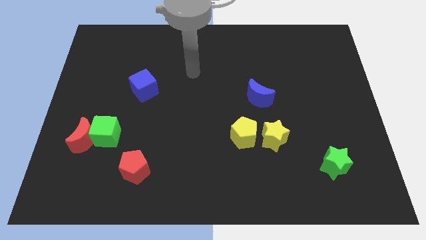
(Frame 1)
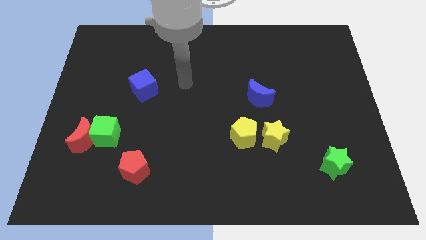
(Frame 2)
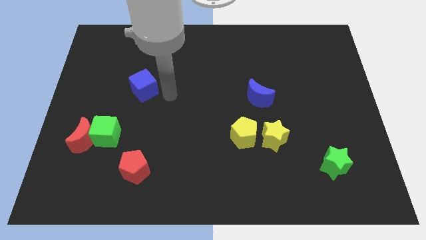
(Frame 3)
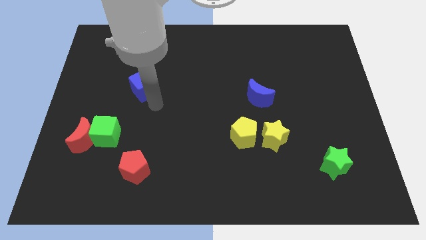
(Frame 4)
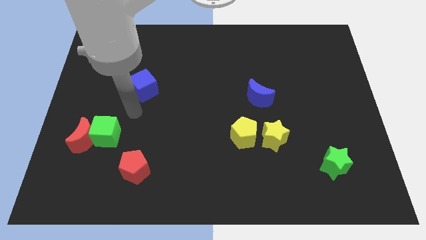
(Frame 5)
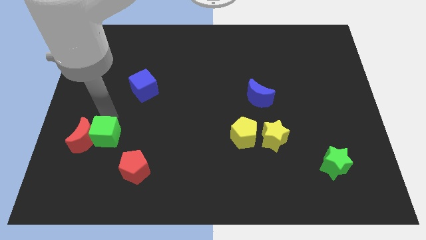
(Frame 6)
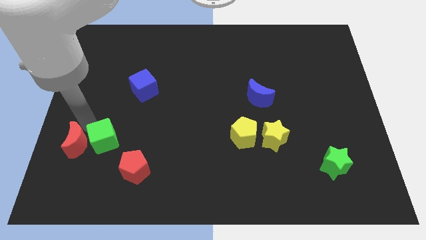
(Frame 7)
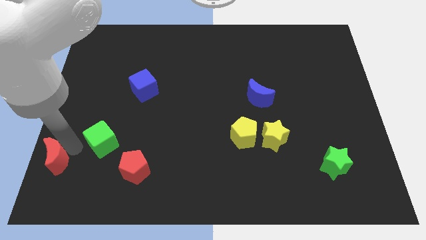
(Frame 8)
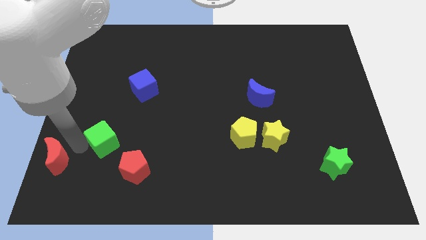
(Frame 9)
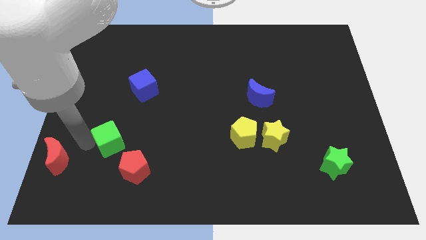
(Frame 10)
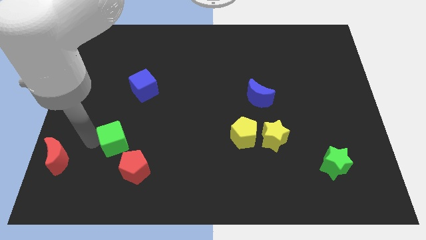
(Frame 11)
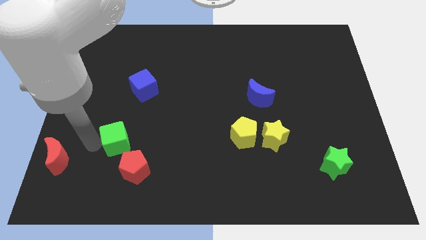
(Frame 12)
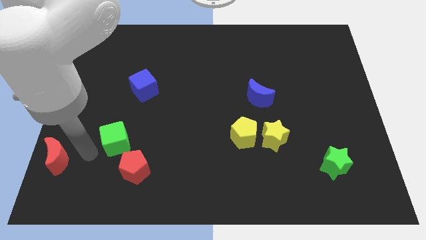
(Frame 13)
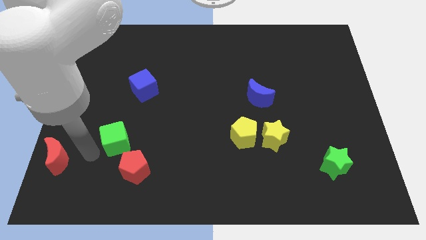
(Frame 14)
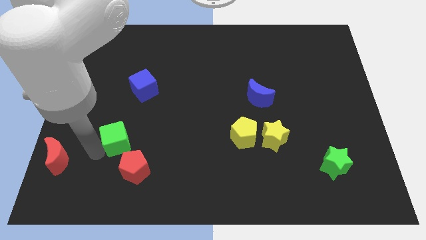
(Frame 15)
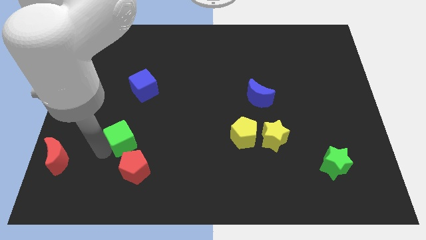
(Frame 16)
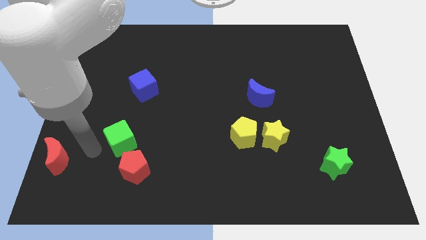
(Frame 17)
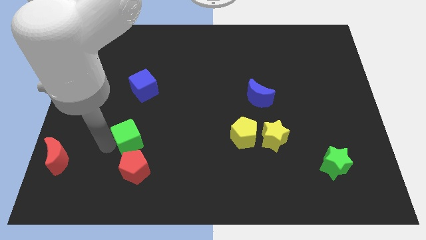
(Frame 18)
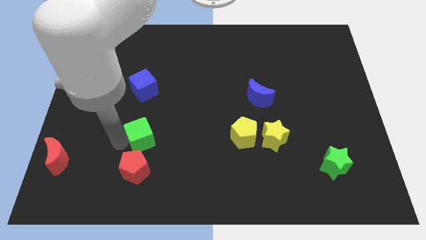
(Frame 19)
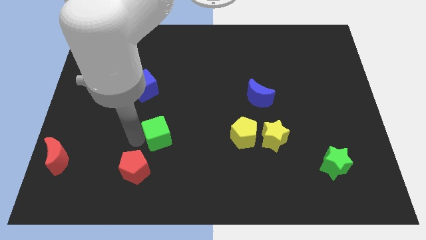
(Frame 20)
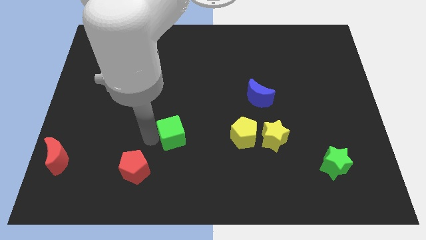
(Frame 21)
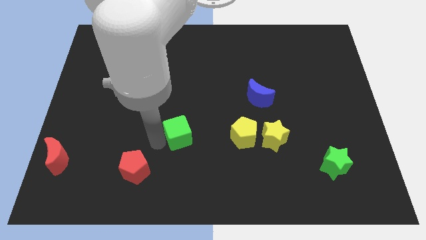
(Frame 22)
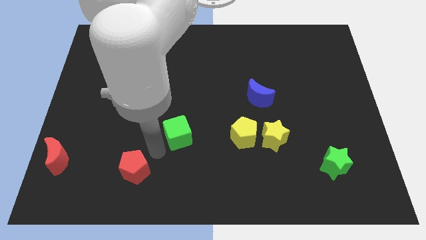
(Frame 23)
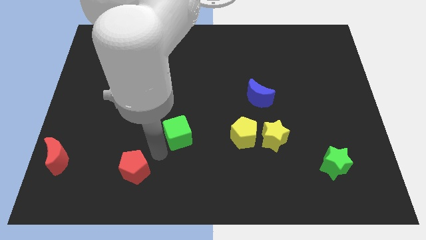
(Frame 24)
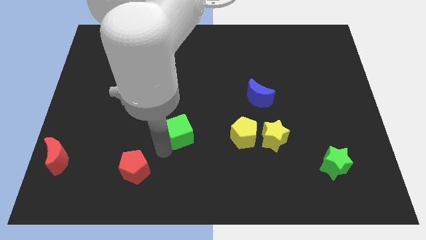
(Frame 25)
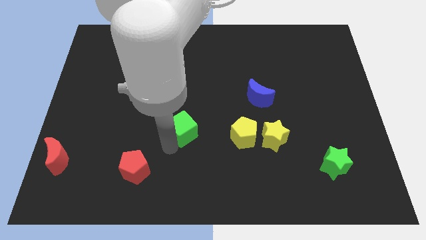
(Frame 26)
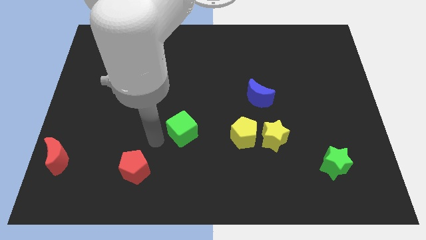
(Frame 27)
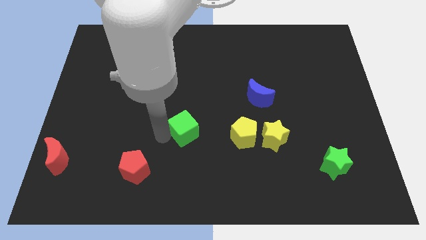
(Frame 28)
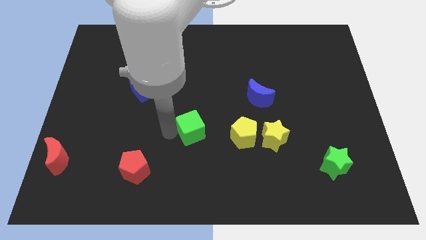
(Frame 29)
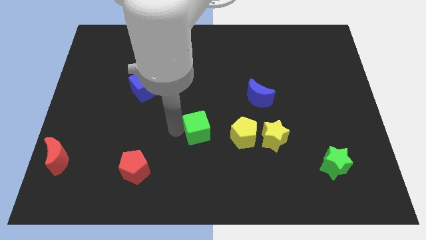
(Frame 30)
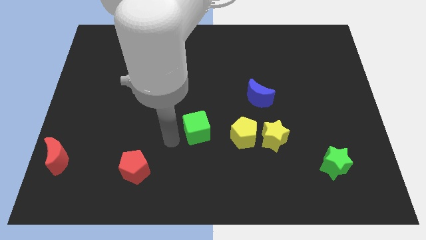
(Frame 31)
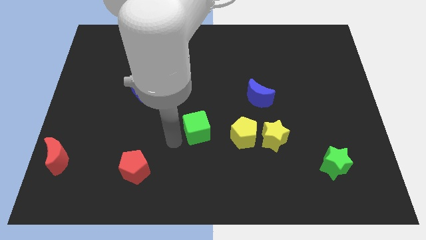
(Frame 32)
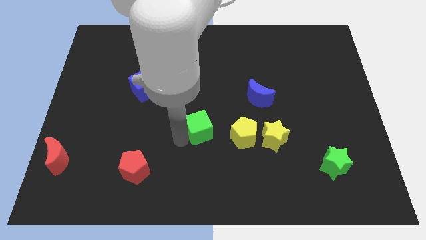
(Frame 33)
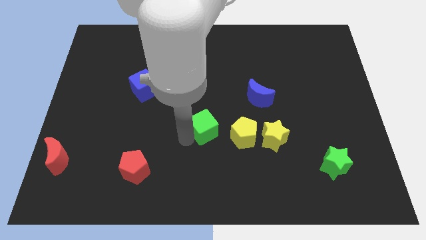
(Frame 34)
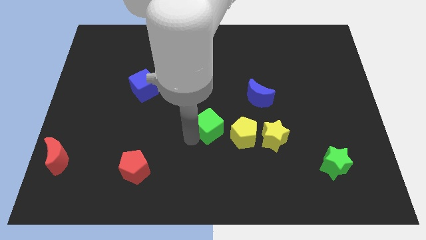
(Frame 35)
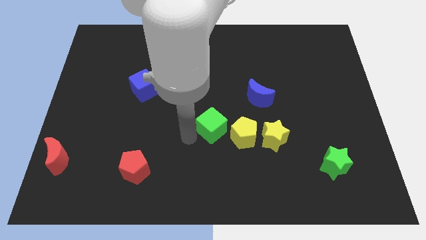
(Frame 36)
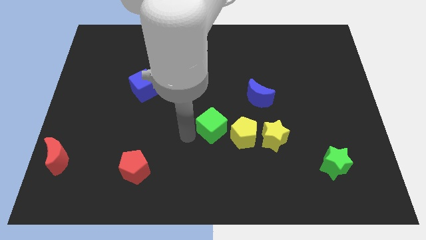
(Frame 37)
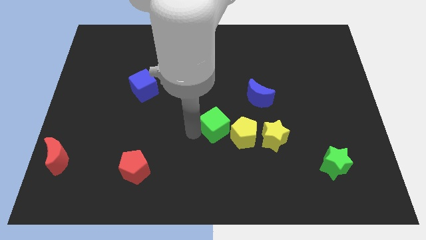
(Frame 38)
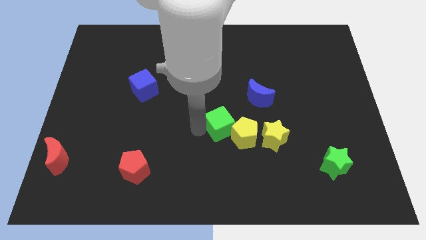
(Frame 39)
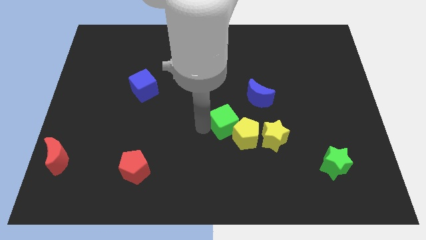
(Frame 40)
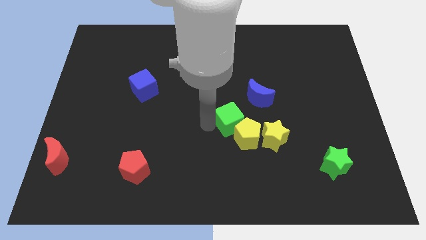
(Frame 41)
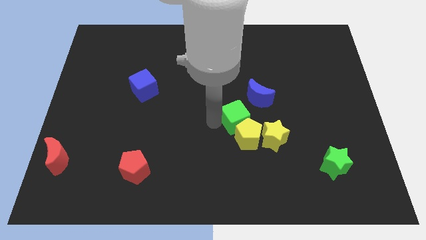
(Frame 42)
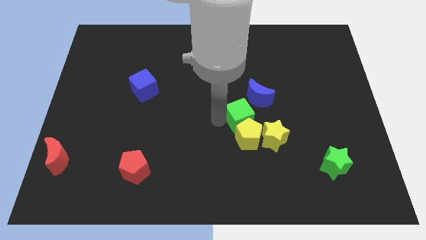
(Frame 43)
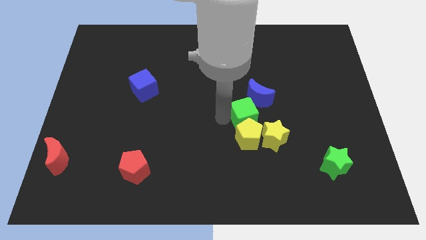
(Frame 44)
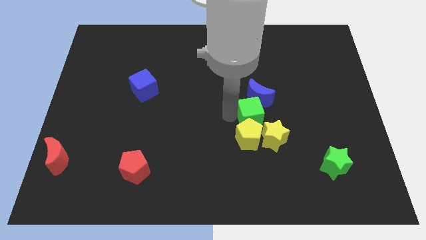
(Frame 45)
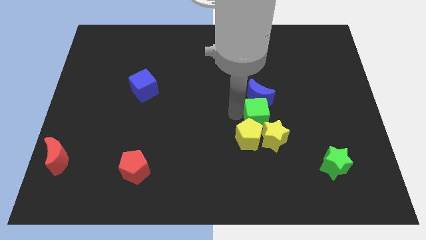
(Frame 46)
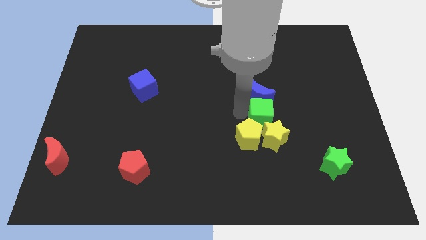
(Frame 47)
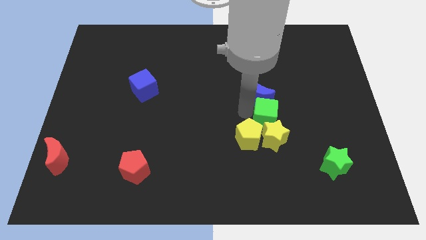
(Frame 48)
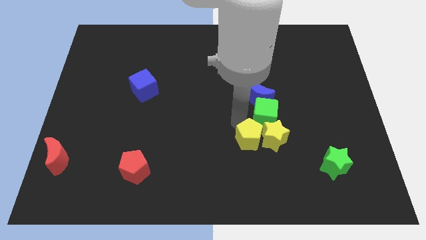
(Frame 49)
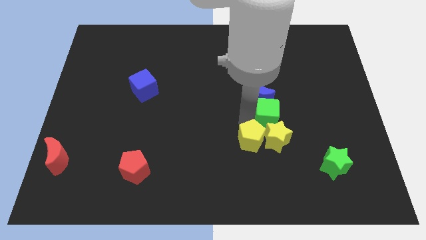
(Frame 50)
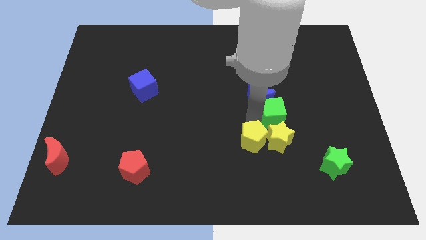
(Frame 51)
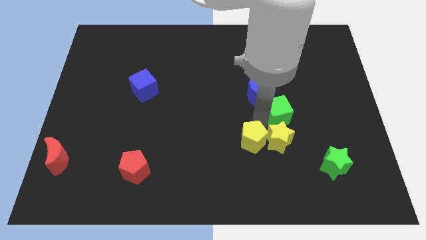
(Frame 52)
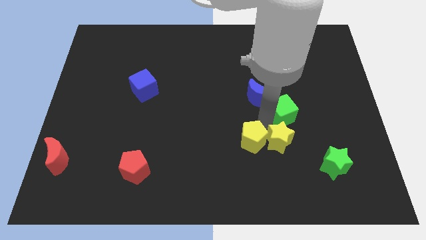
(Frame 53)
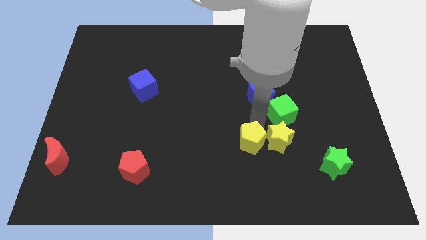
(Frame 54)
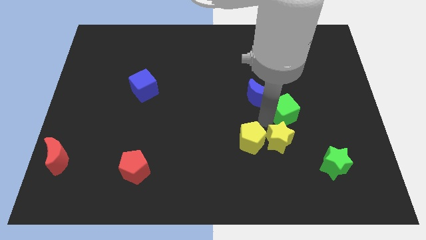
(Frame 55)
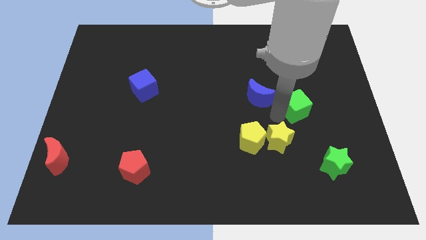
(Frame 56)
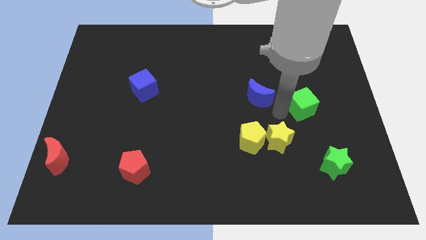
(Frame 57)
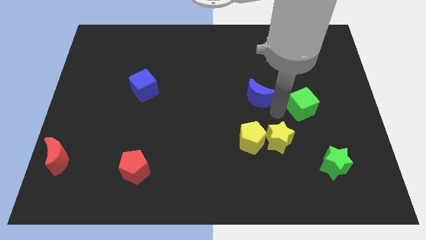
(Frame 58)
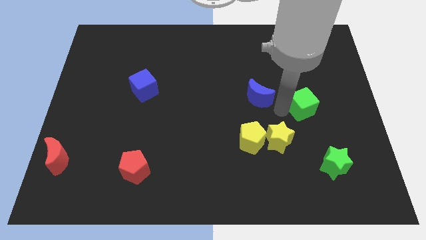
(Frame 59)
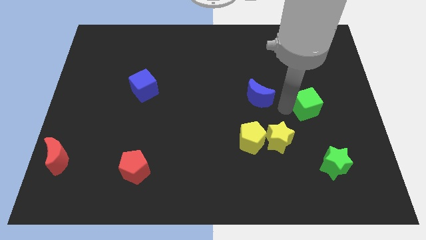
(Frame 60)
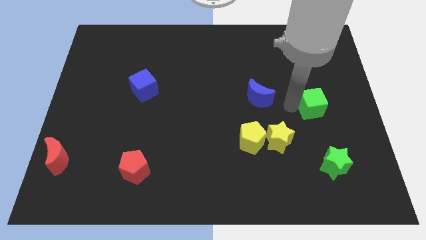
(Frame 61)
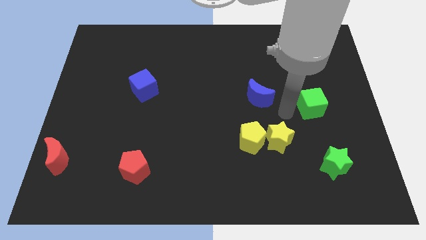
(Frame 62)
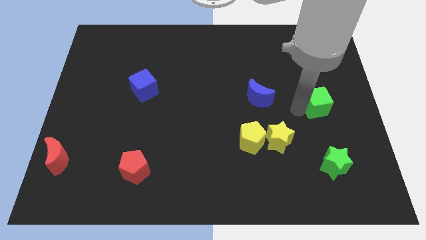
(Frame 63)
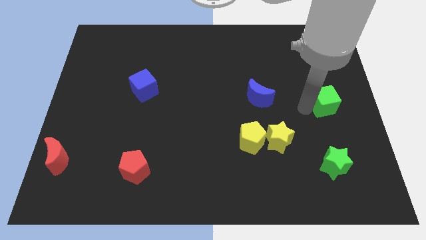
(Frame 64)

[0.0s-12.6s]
move the green cube to the center right

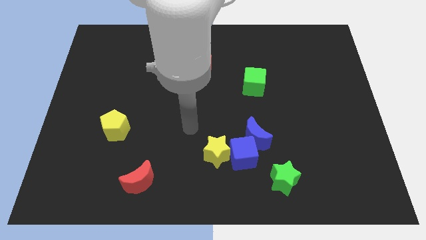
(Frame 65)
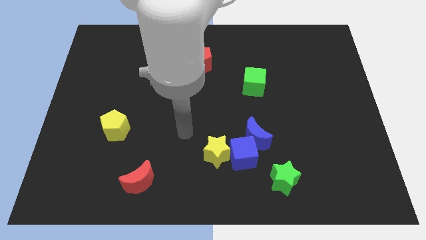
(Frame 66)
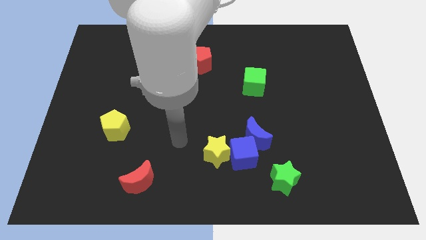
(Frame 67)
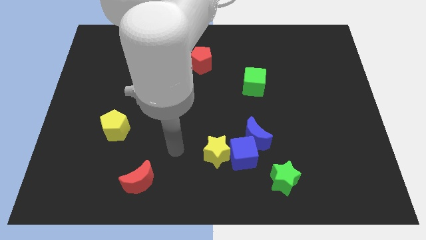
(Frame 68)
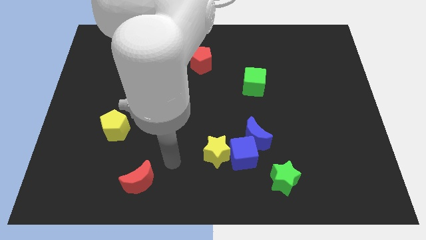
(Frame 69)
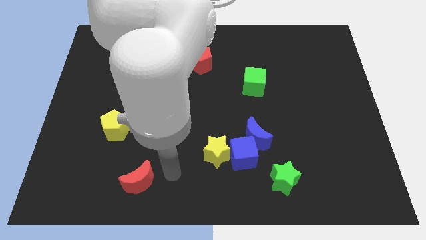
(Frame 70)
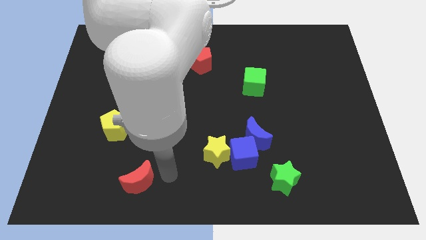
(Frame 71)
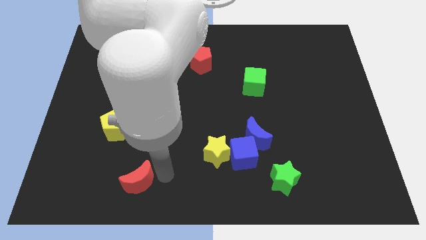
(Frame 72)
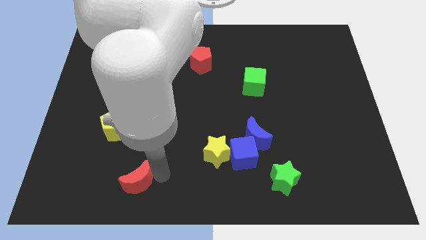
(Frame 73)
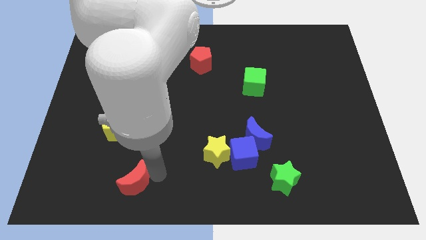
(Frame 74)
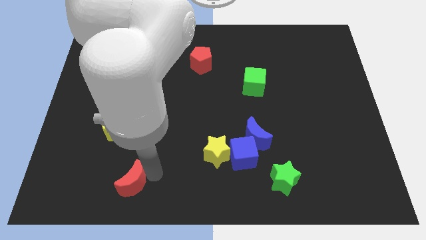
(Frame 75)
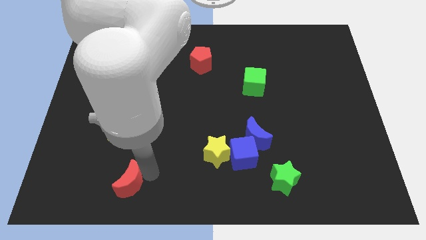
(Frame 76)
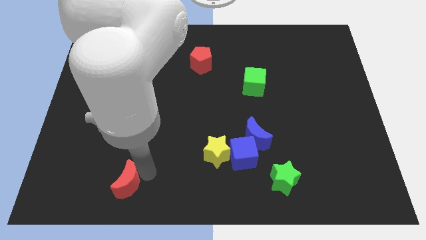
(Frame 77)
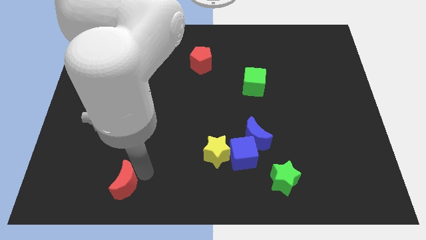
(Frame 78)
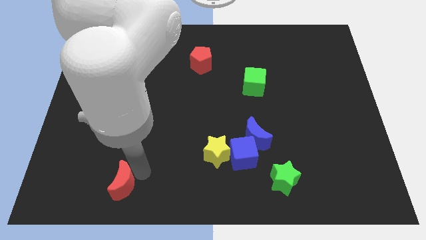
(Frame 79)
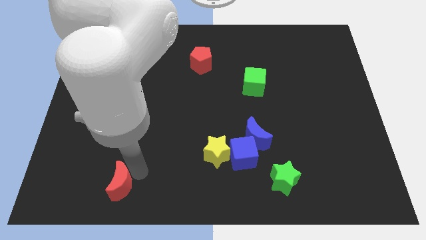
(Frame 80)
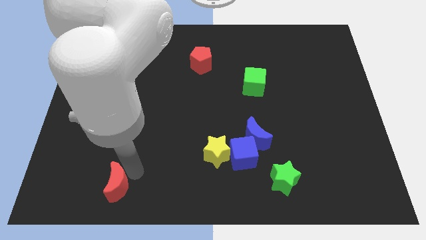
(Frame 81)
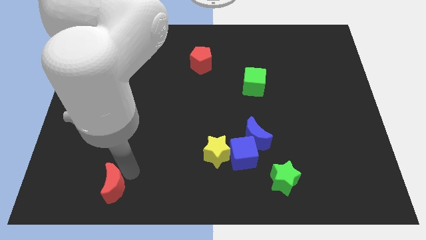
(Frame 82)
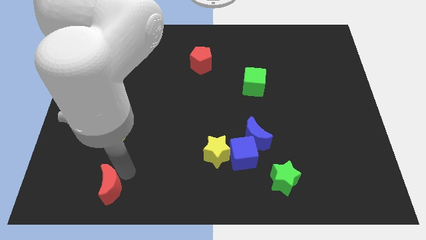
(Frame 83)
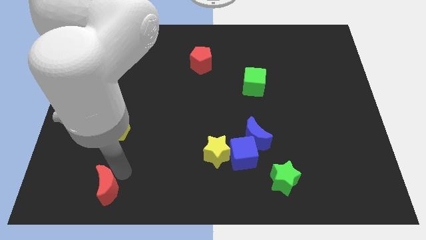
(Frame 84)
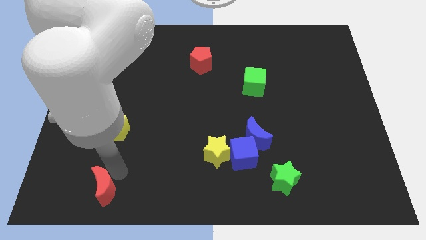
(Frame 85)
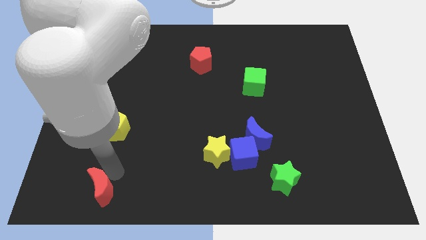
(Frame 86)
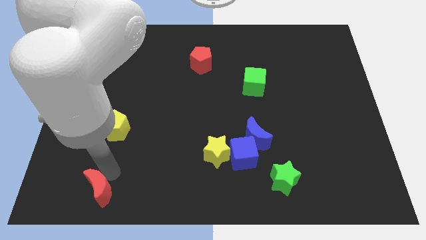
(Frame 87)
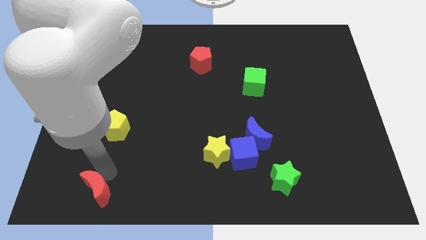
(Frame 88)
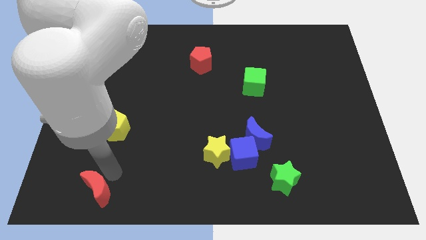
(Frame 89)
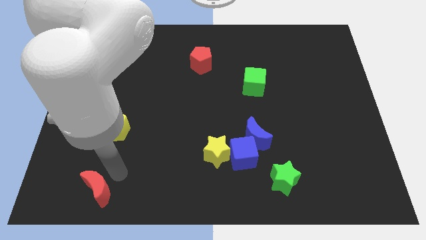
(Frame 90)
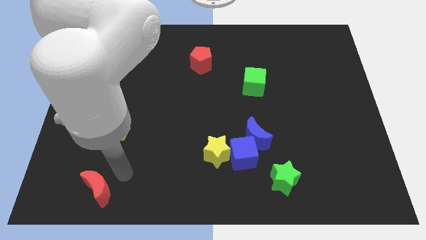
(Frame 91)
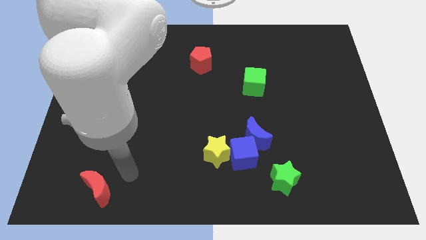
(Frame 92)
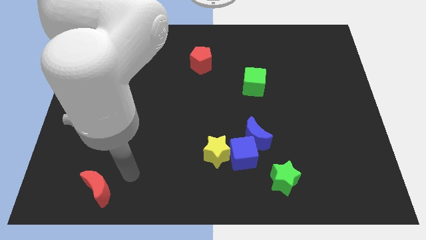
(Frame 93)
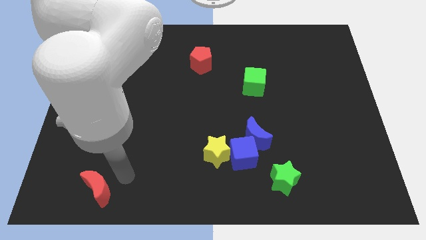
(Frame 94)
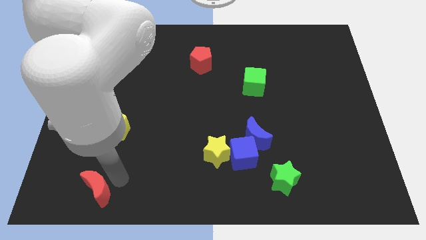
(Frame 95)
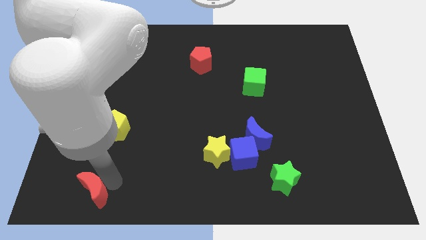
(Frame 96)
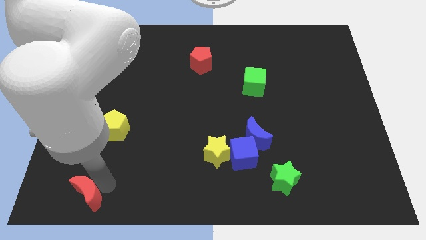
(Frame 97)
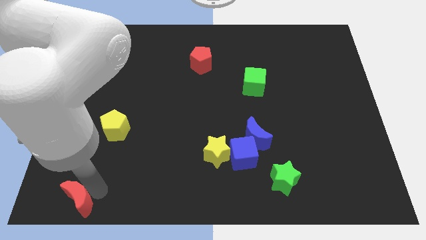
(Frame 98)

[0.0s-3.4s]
push the red moon to the bottom left corner
